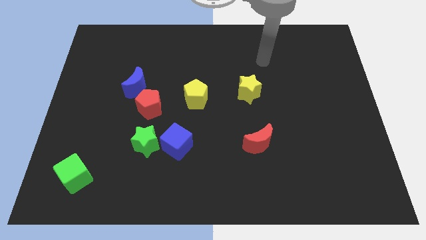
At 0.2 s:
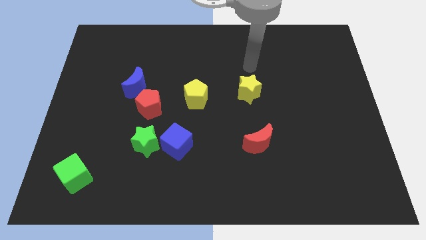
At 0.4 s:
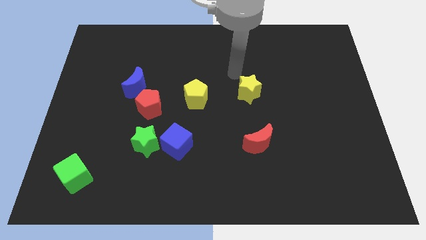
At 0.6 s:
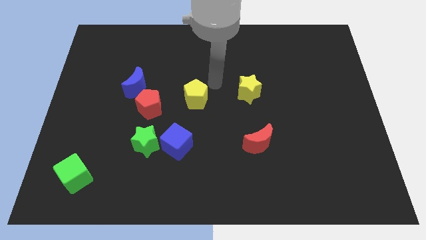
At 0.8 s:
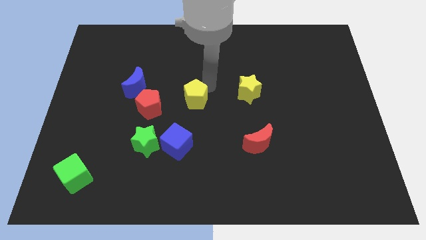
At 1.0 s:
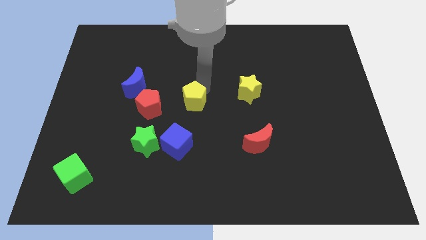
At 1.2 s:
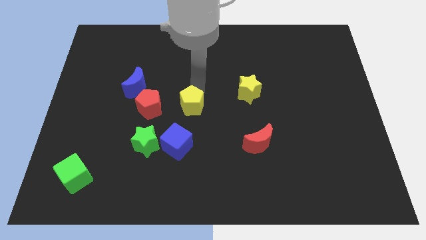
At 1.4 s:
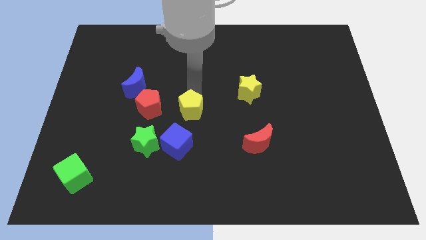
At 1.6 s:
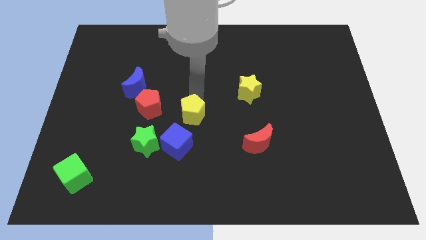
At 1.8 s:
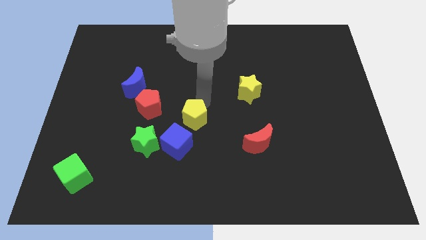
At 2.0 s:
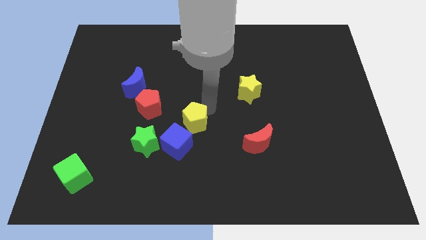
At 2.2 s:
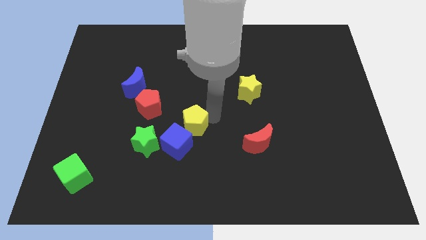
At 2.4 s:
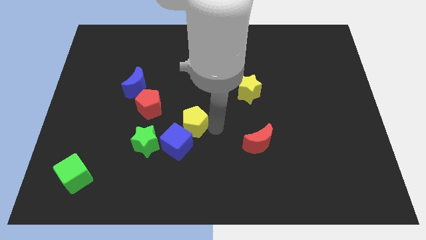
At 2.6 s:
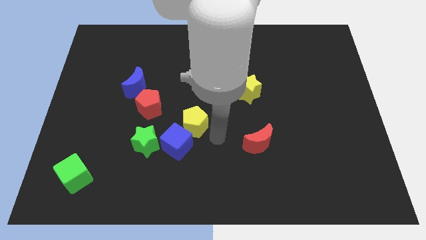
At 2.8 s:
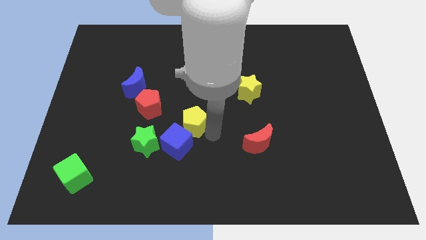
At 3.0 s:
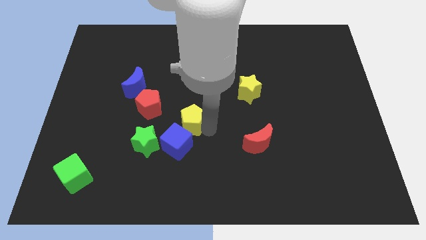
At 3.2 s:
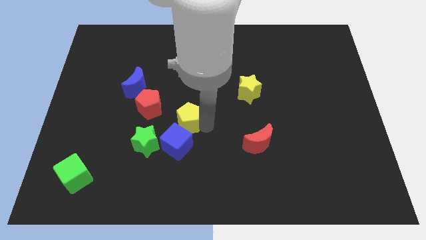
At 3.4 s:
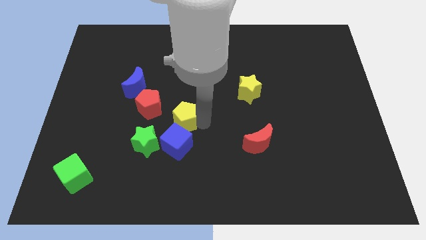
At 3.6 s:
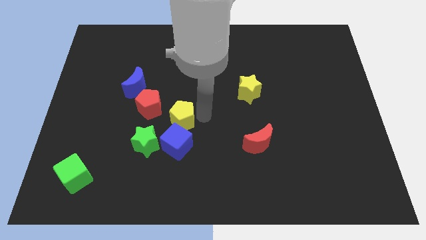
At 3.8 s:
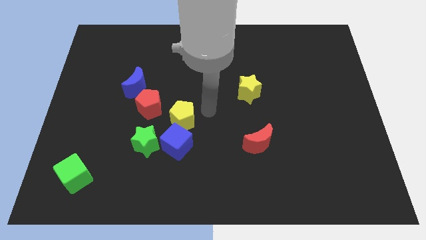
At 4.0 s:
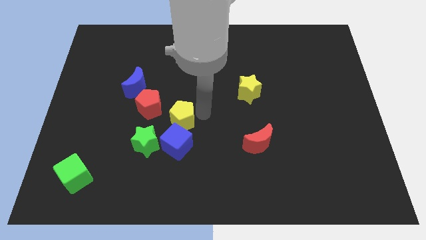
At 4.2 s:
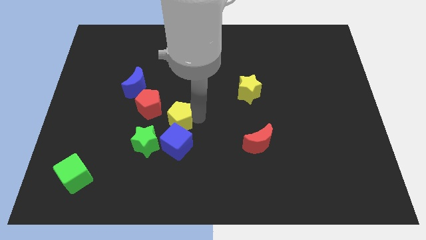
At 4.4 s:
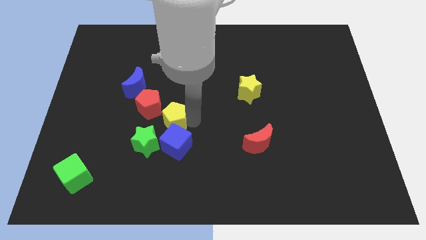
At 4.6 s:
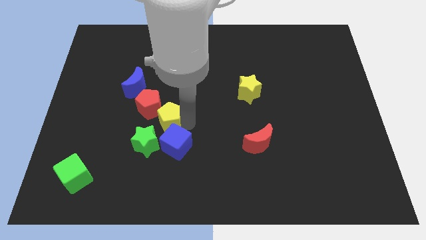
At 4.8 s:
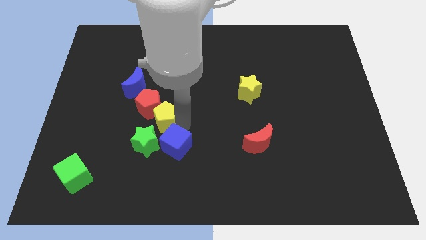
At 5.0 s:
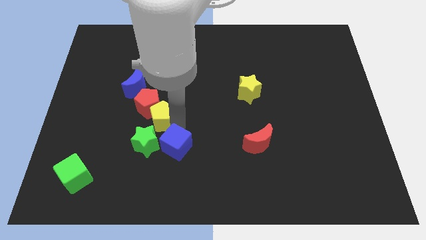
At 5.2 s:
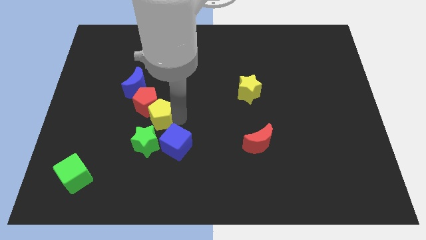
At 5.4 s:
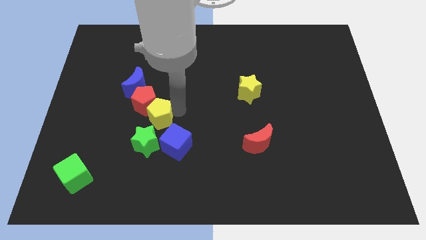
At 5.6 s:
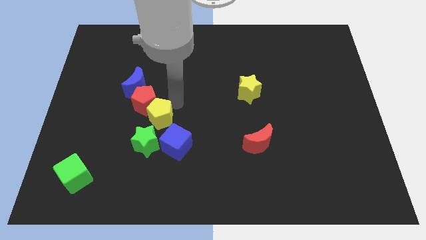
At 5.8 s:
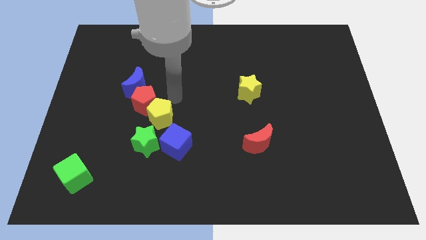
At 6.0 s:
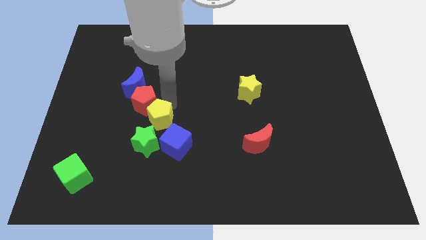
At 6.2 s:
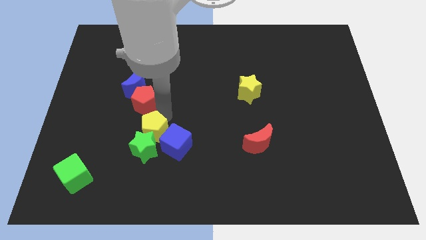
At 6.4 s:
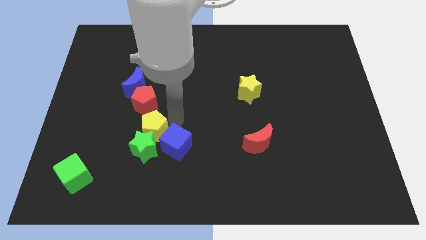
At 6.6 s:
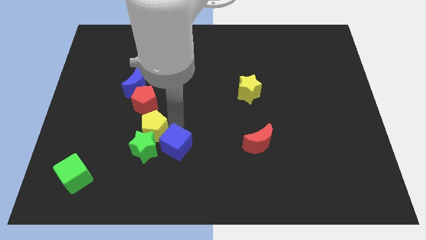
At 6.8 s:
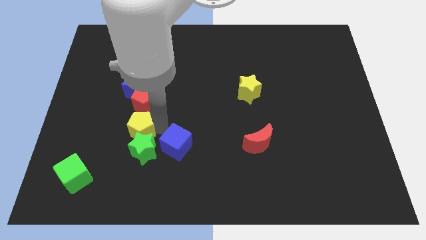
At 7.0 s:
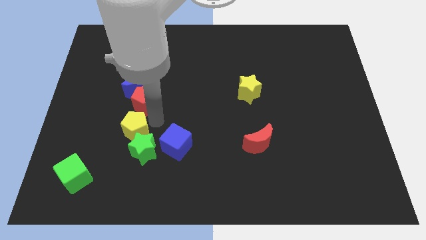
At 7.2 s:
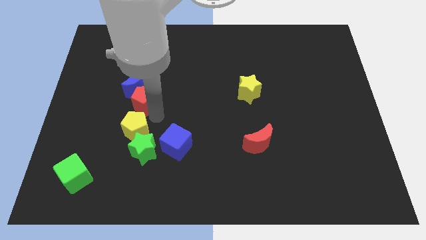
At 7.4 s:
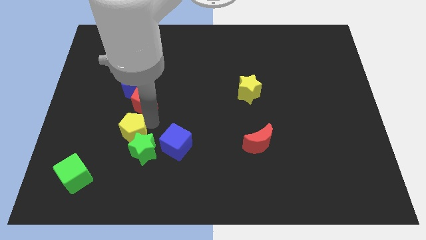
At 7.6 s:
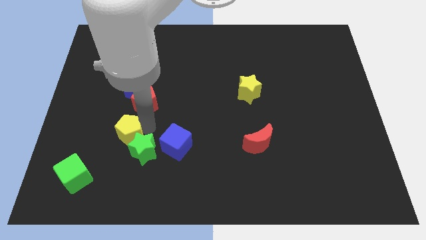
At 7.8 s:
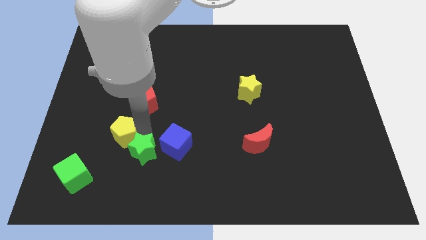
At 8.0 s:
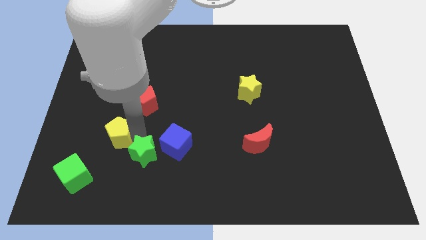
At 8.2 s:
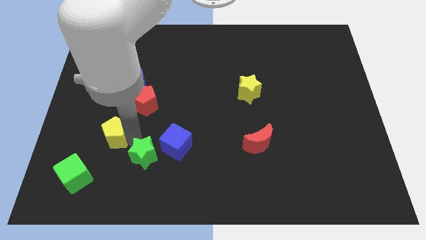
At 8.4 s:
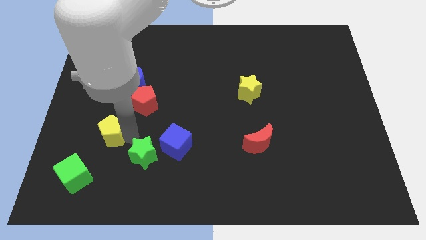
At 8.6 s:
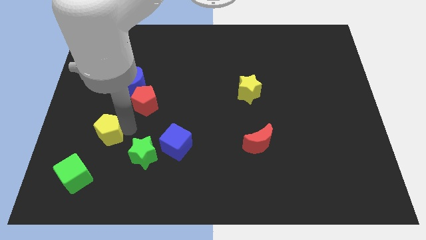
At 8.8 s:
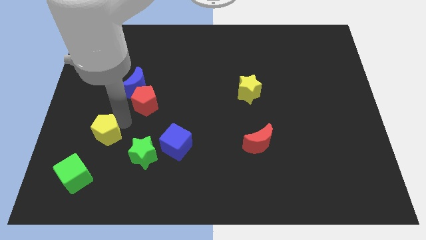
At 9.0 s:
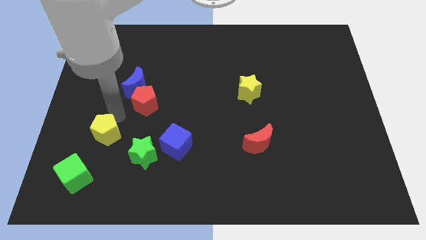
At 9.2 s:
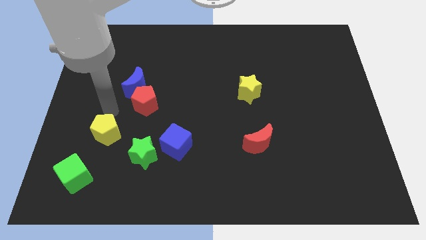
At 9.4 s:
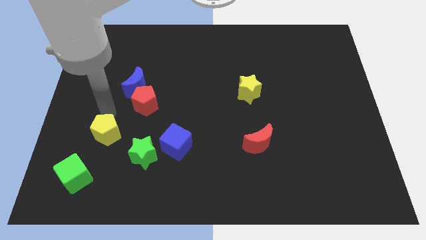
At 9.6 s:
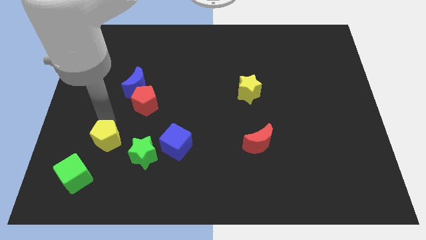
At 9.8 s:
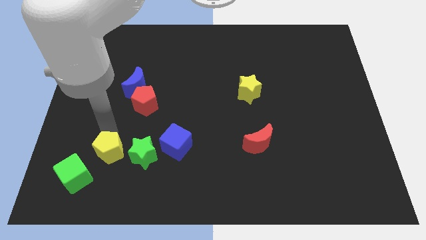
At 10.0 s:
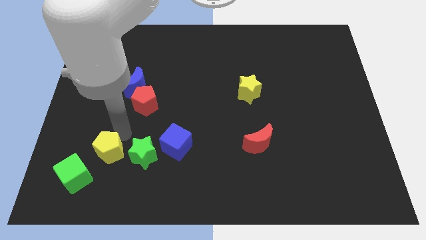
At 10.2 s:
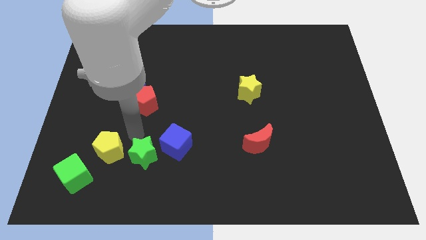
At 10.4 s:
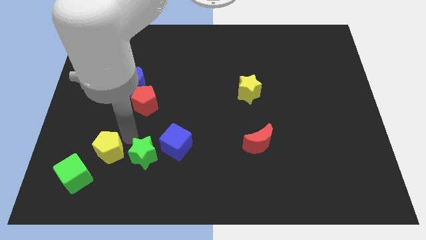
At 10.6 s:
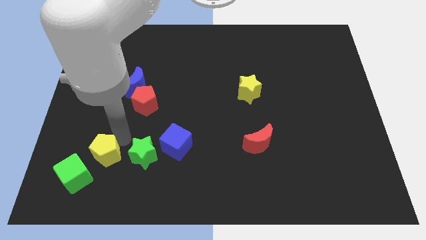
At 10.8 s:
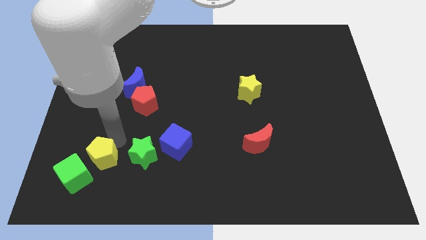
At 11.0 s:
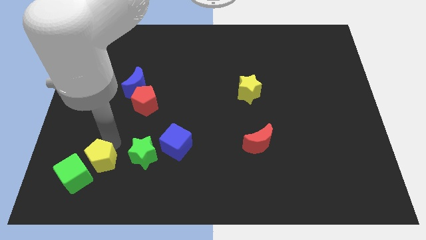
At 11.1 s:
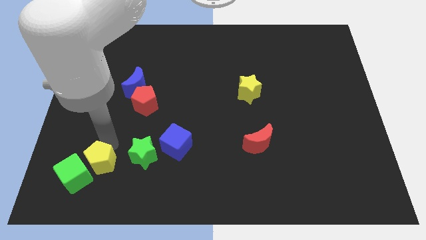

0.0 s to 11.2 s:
push the yellow pentagon next to the green cube
